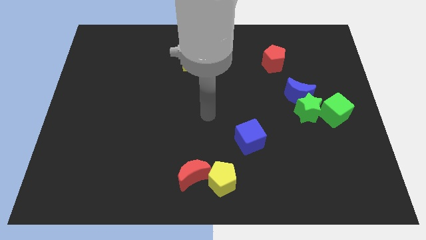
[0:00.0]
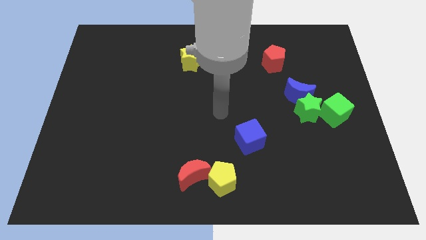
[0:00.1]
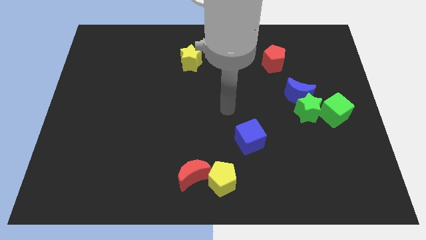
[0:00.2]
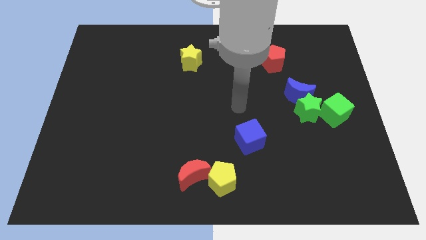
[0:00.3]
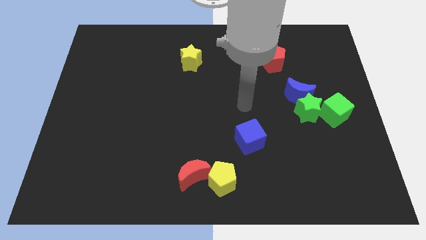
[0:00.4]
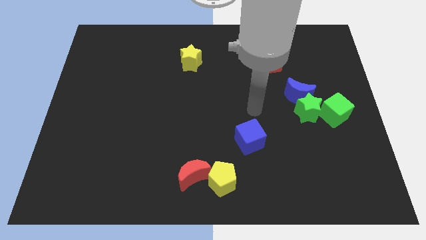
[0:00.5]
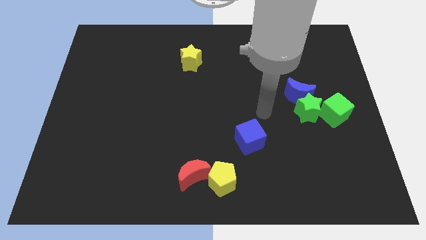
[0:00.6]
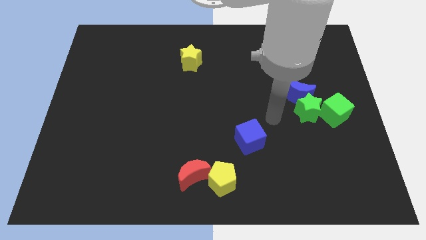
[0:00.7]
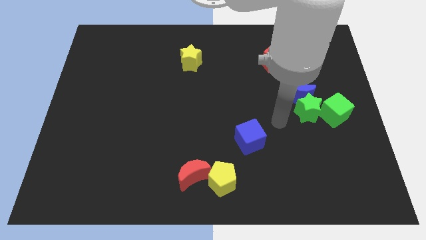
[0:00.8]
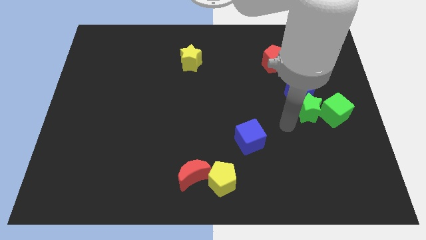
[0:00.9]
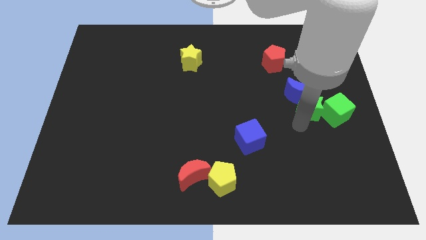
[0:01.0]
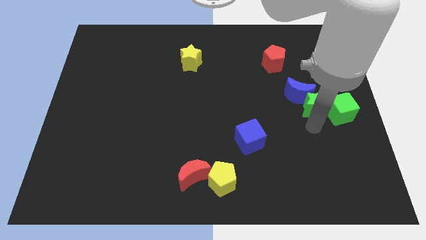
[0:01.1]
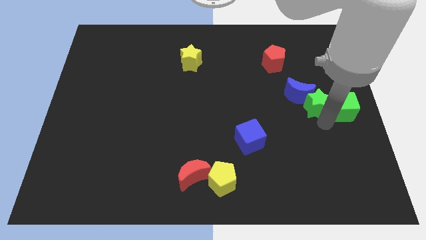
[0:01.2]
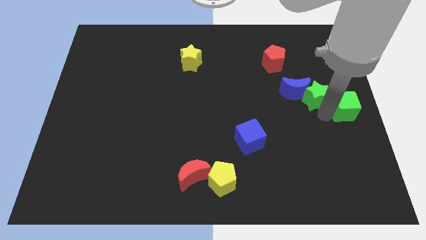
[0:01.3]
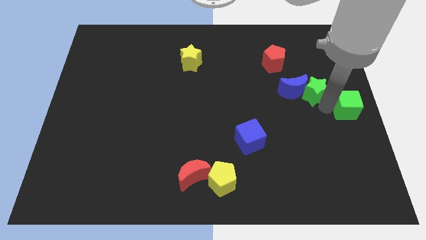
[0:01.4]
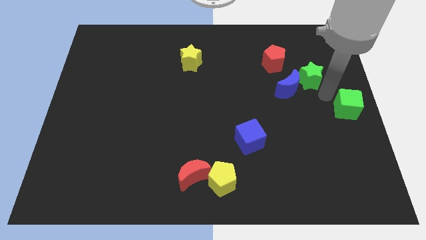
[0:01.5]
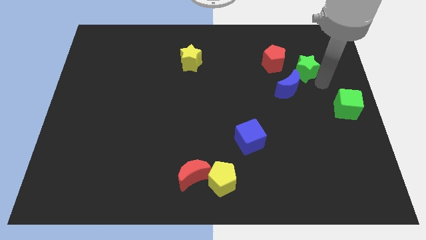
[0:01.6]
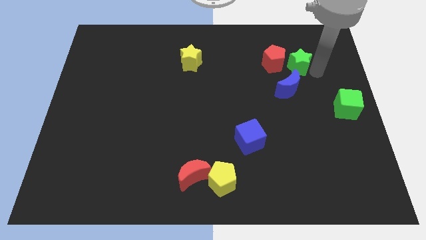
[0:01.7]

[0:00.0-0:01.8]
move the green star away from the blue moon and green cube

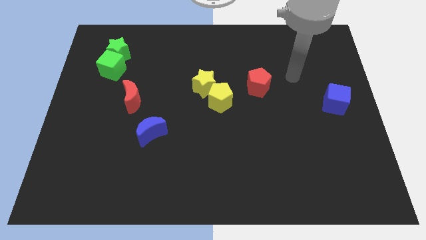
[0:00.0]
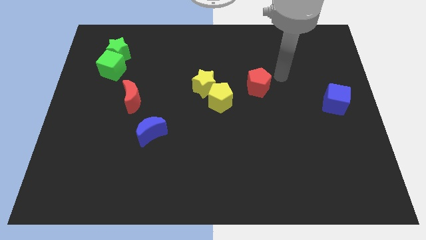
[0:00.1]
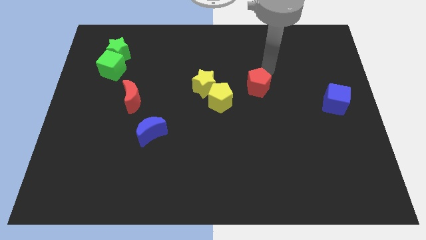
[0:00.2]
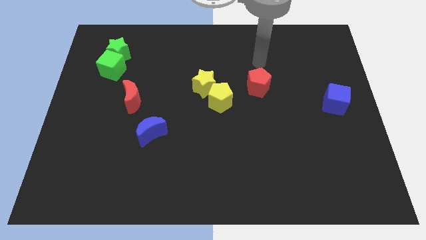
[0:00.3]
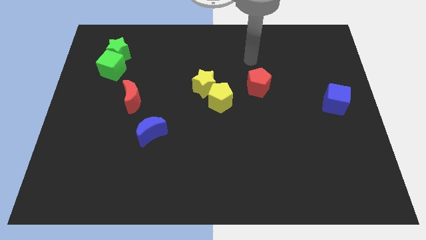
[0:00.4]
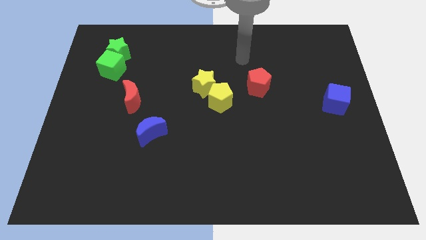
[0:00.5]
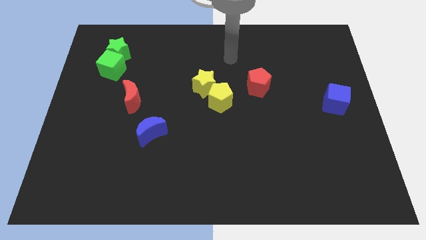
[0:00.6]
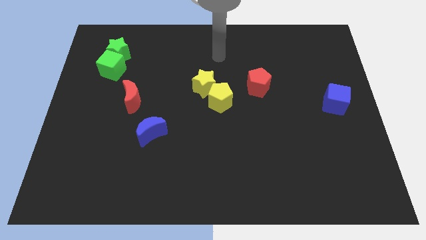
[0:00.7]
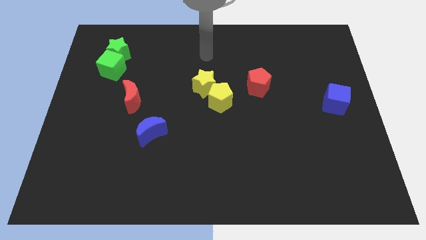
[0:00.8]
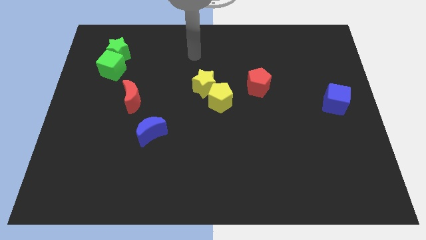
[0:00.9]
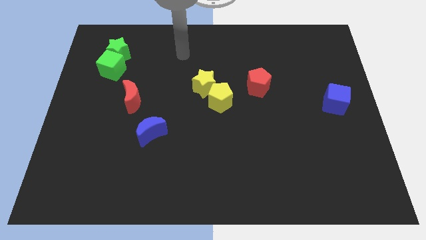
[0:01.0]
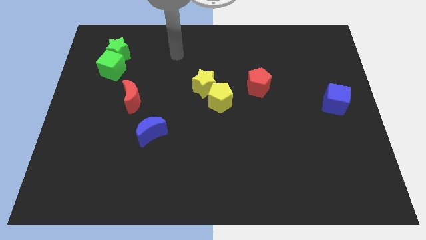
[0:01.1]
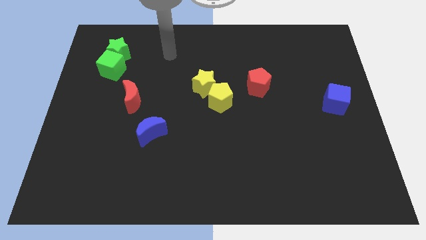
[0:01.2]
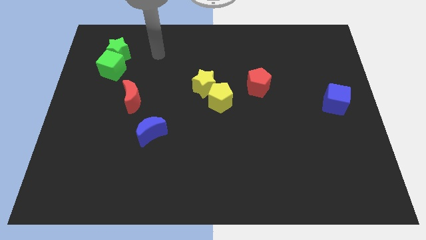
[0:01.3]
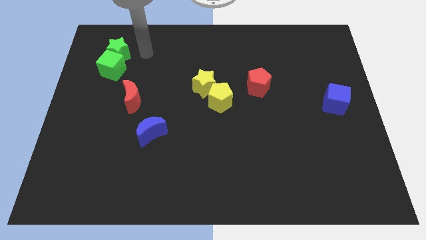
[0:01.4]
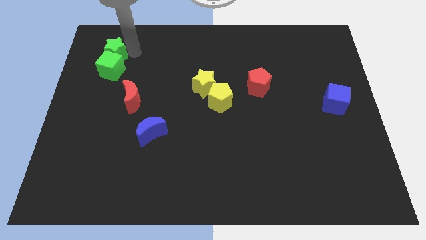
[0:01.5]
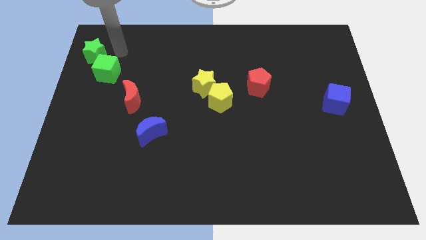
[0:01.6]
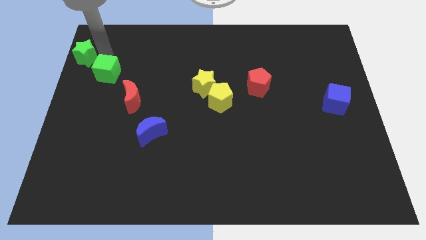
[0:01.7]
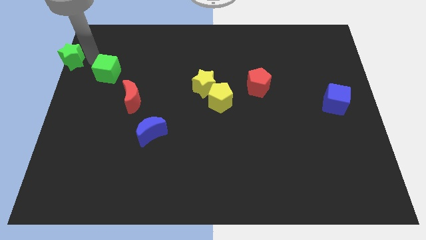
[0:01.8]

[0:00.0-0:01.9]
separate the green cube from the green star

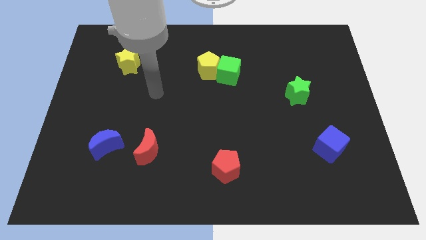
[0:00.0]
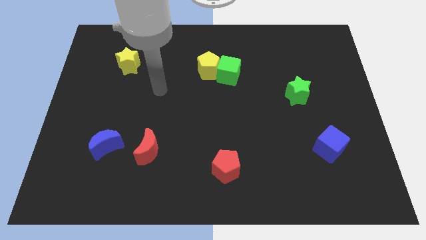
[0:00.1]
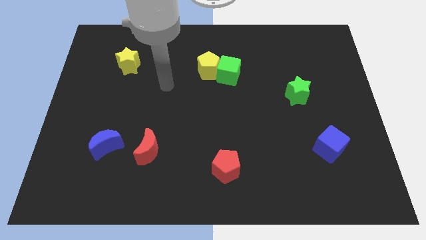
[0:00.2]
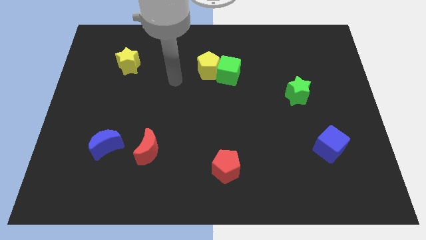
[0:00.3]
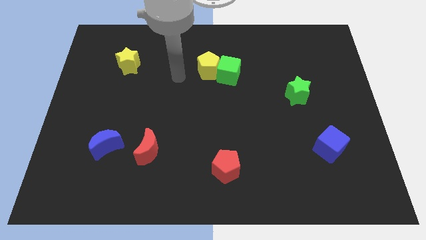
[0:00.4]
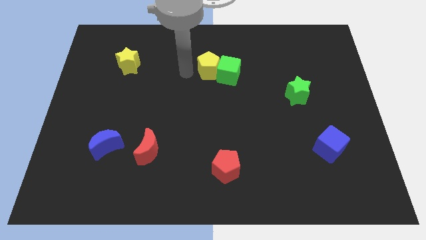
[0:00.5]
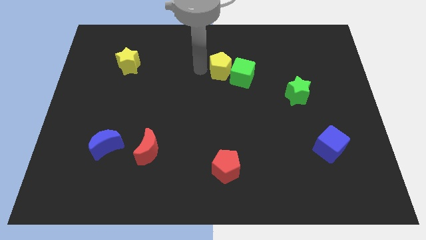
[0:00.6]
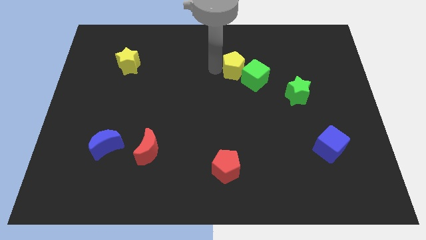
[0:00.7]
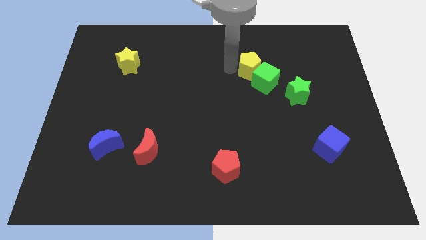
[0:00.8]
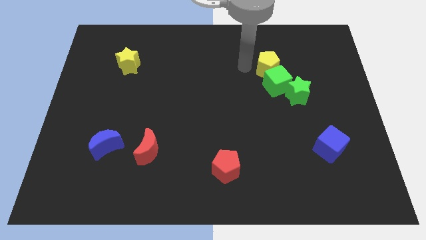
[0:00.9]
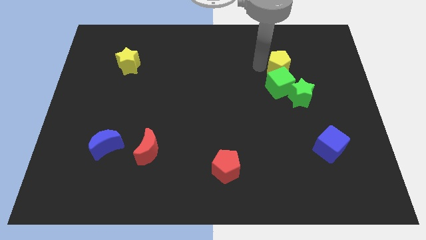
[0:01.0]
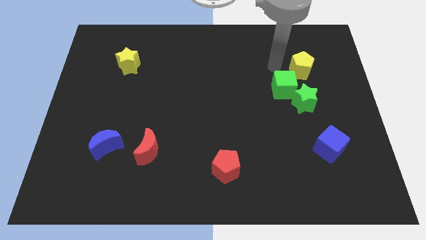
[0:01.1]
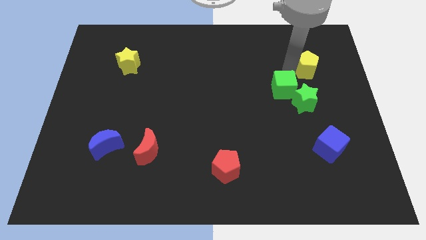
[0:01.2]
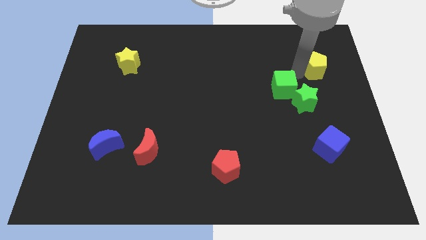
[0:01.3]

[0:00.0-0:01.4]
separate the green cube from the yellow pentagon

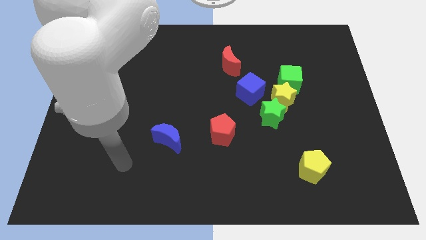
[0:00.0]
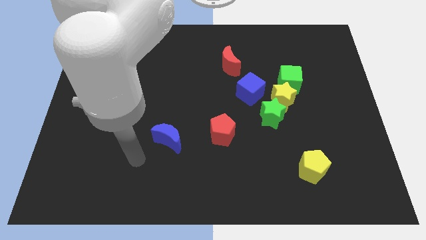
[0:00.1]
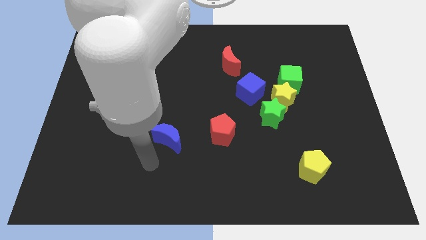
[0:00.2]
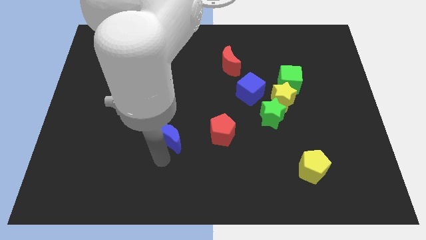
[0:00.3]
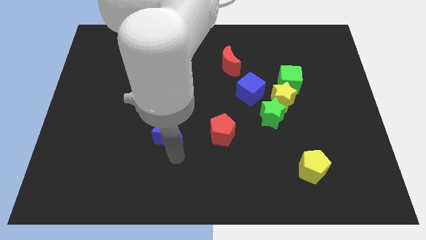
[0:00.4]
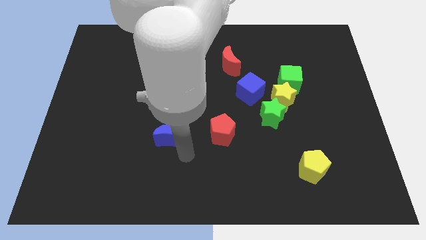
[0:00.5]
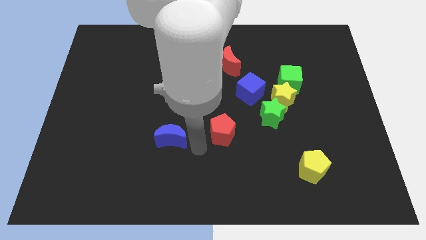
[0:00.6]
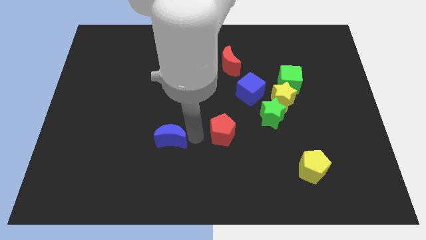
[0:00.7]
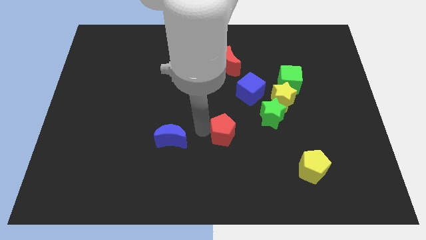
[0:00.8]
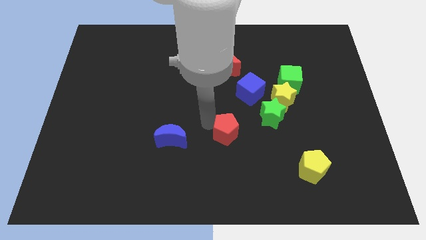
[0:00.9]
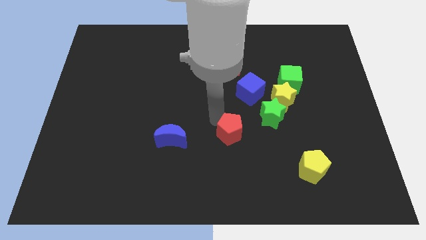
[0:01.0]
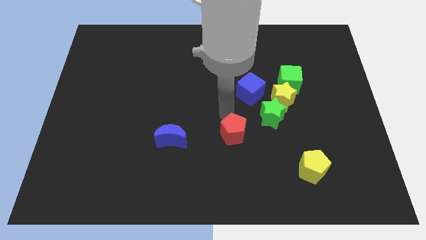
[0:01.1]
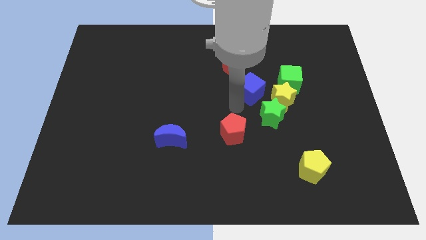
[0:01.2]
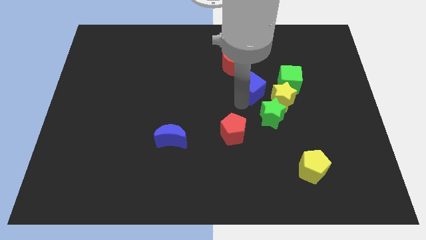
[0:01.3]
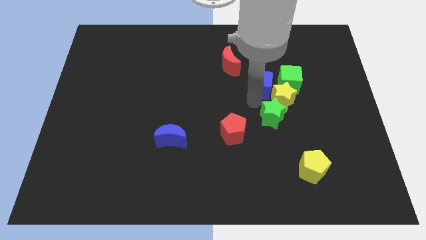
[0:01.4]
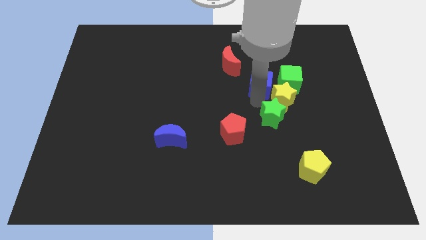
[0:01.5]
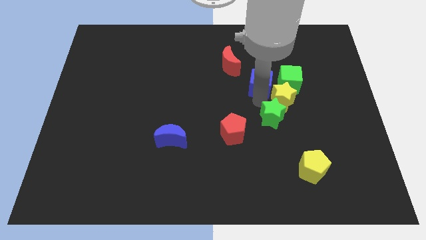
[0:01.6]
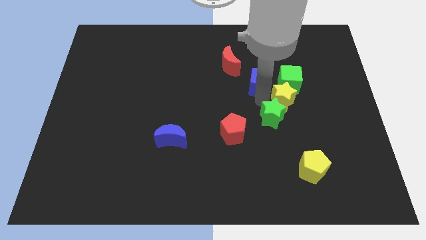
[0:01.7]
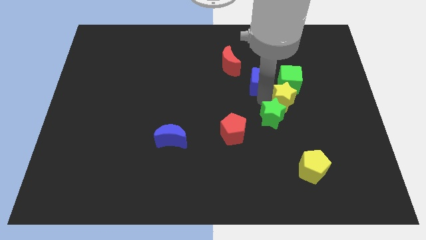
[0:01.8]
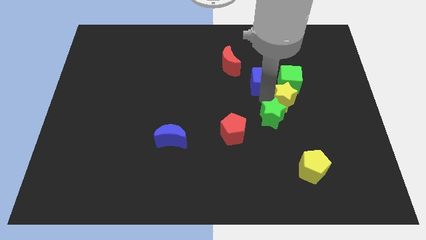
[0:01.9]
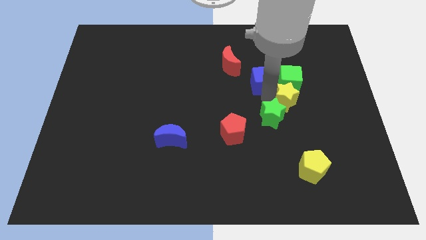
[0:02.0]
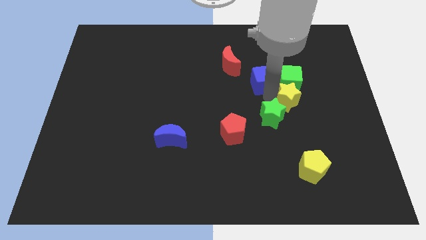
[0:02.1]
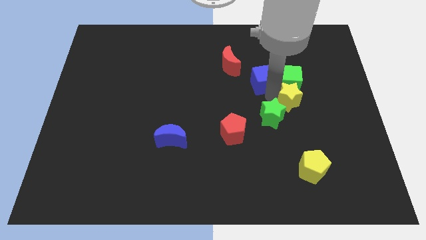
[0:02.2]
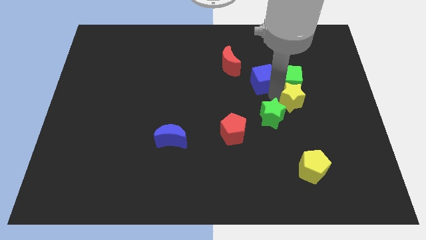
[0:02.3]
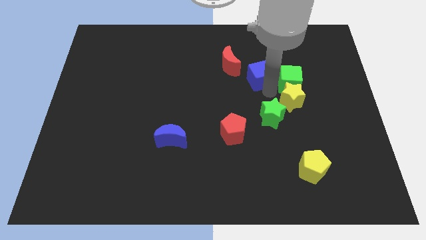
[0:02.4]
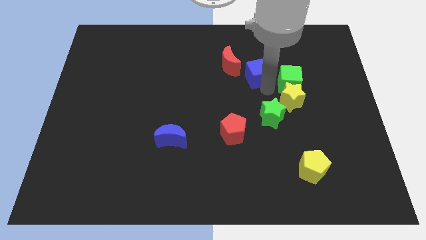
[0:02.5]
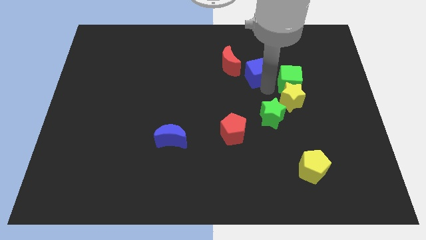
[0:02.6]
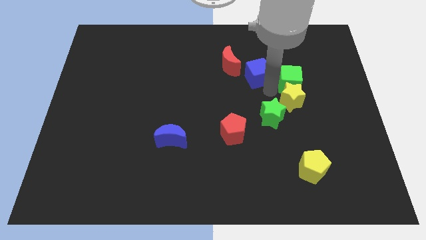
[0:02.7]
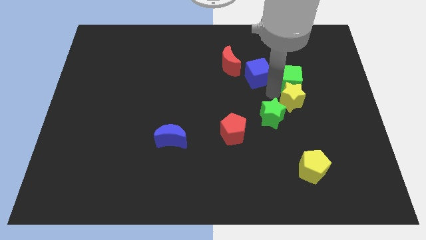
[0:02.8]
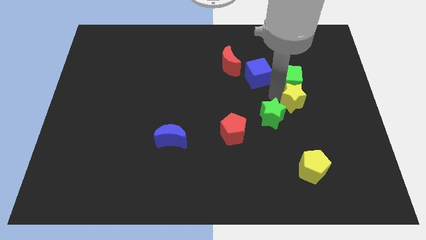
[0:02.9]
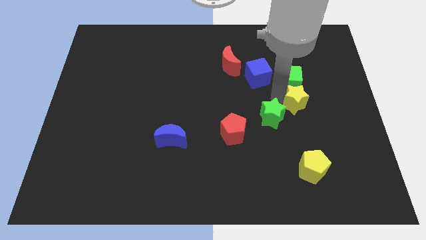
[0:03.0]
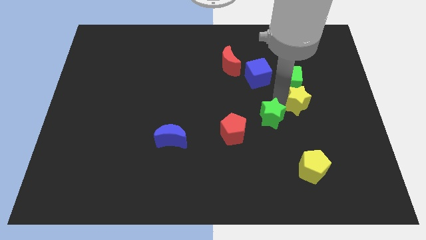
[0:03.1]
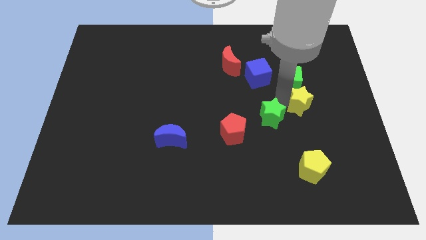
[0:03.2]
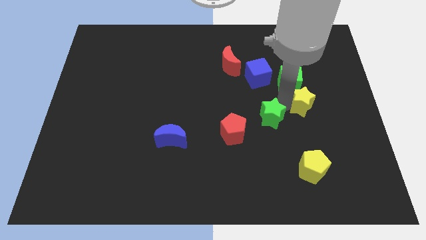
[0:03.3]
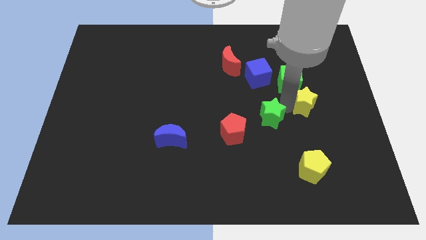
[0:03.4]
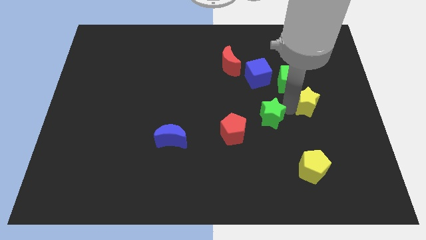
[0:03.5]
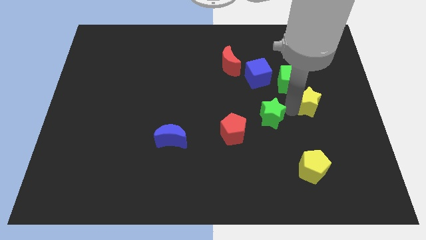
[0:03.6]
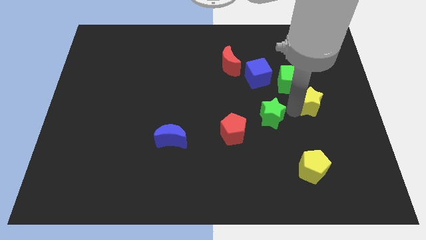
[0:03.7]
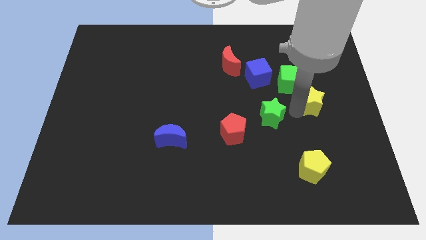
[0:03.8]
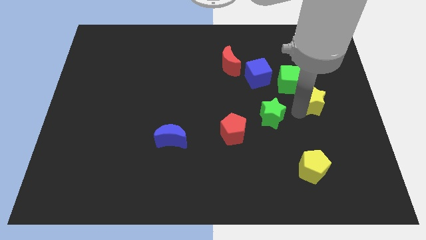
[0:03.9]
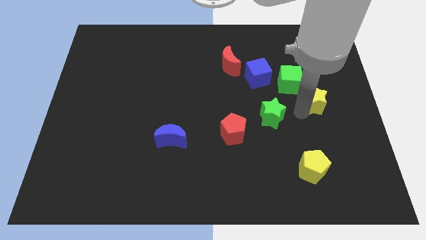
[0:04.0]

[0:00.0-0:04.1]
pull the yellow star apart from the clump

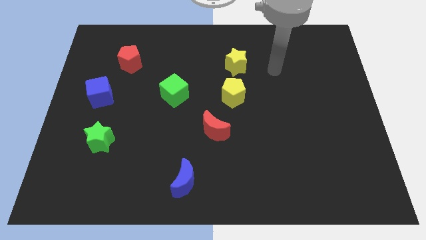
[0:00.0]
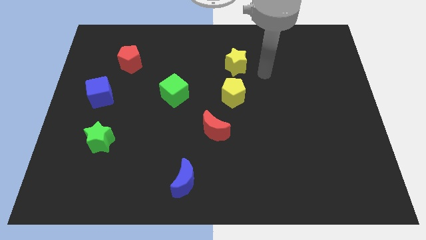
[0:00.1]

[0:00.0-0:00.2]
pull the yellow star apart from the yellow pentagon

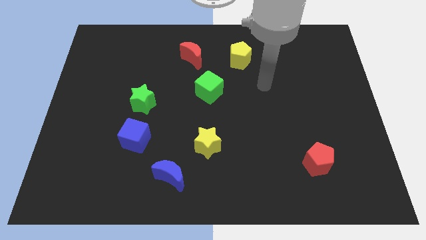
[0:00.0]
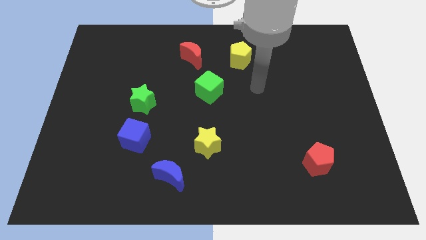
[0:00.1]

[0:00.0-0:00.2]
separate the blue cube from the green star
